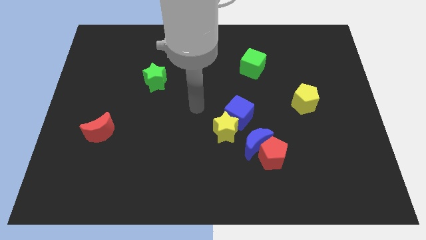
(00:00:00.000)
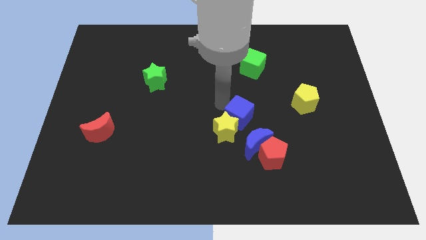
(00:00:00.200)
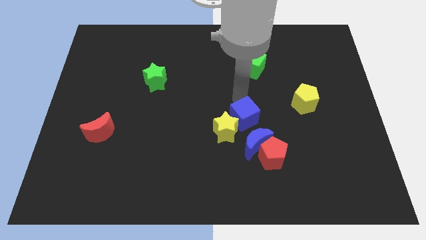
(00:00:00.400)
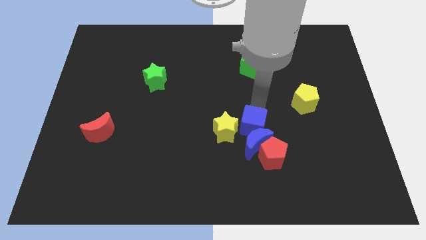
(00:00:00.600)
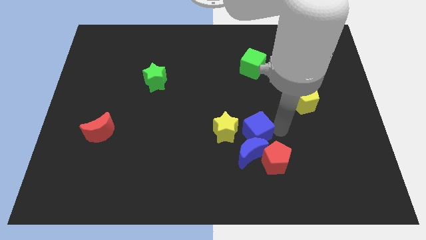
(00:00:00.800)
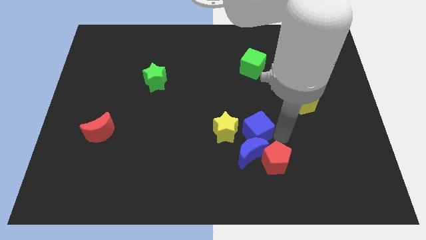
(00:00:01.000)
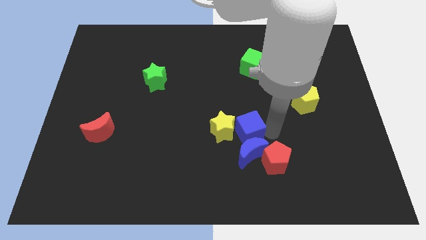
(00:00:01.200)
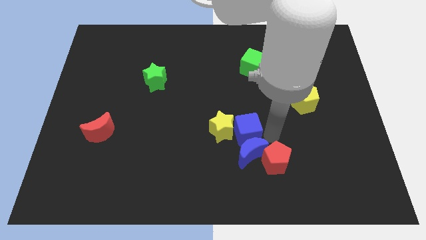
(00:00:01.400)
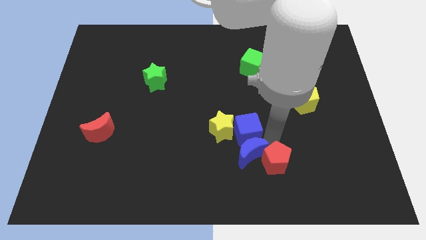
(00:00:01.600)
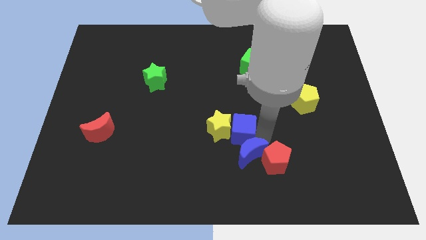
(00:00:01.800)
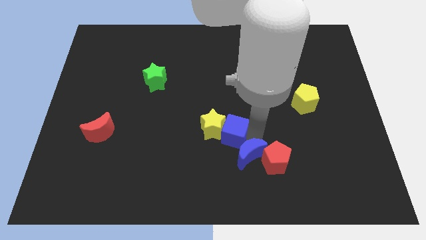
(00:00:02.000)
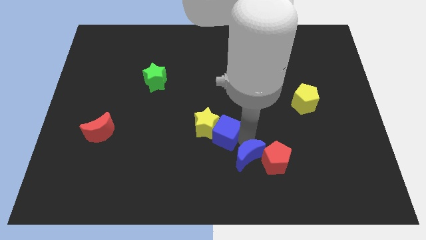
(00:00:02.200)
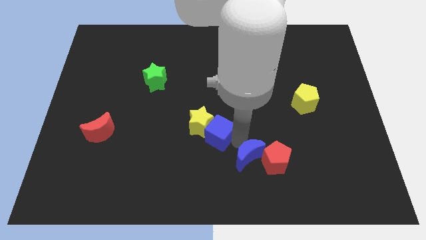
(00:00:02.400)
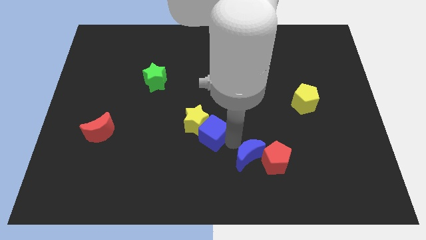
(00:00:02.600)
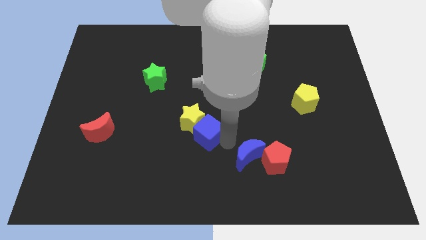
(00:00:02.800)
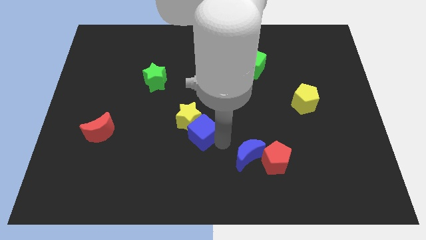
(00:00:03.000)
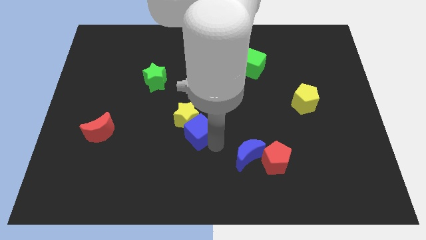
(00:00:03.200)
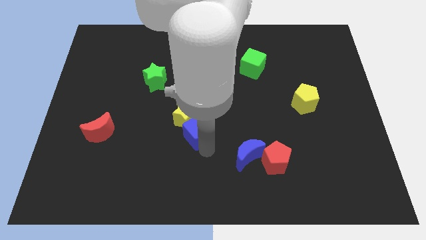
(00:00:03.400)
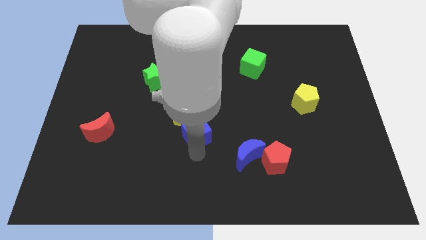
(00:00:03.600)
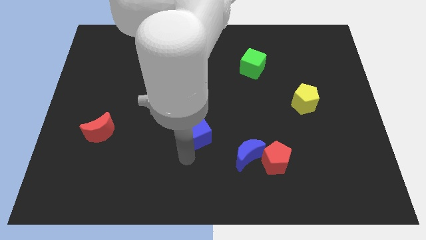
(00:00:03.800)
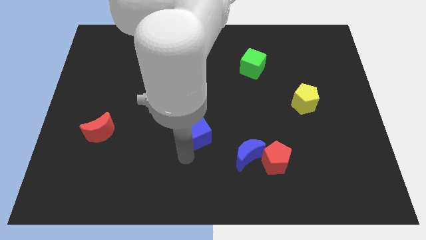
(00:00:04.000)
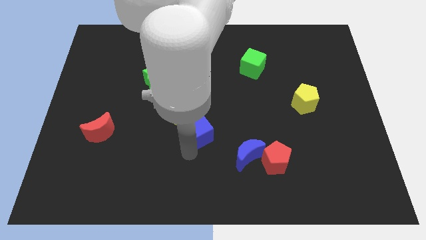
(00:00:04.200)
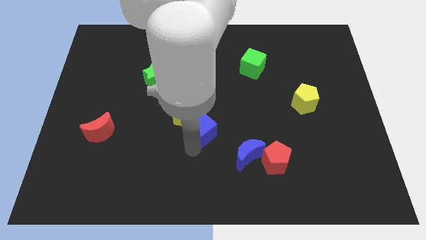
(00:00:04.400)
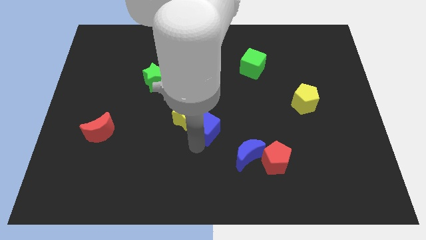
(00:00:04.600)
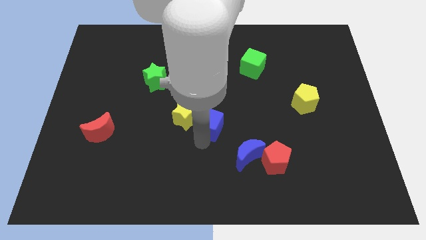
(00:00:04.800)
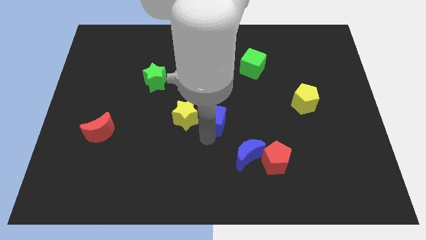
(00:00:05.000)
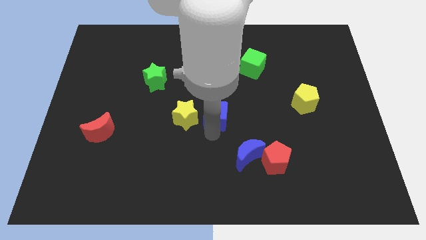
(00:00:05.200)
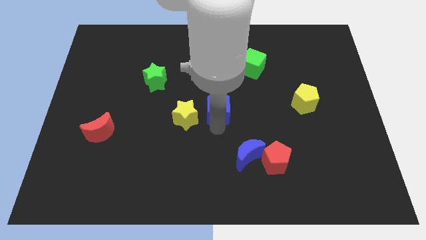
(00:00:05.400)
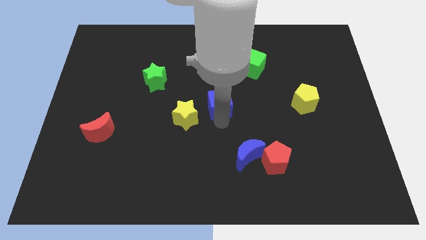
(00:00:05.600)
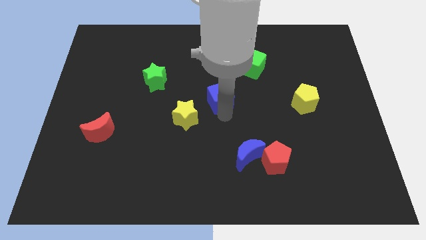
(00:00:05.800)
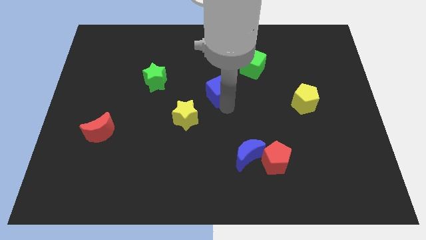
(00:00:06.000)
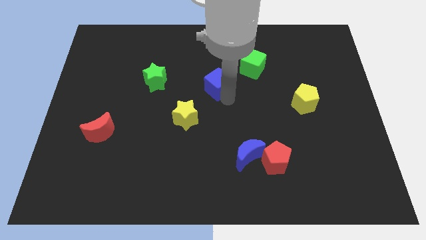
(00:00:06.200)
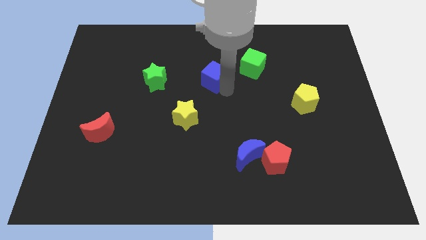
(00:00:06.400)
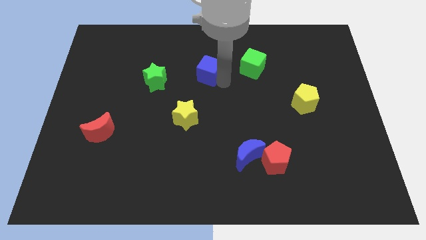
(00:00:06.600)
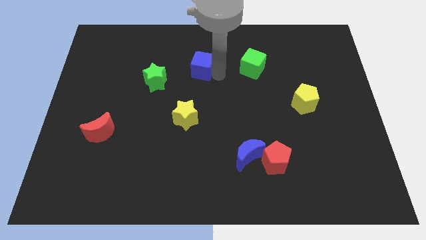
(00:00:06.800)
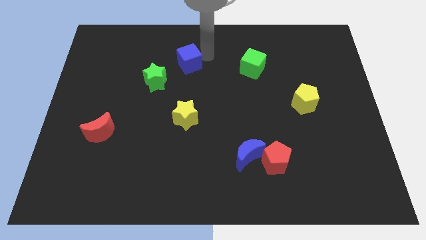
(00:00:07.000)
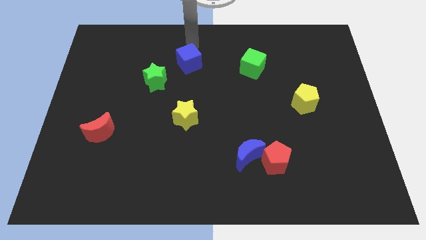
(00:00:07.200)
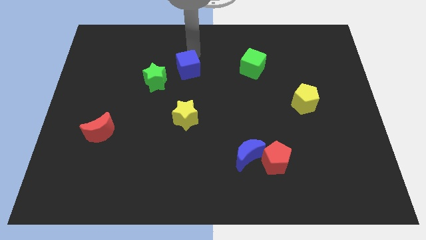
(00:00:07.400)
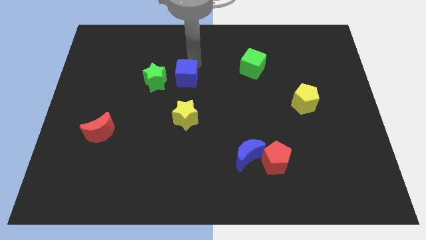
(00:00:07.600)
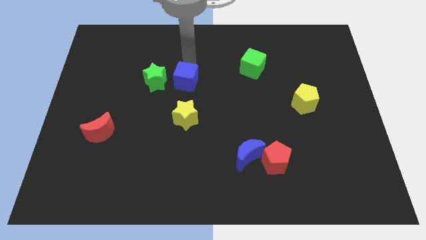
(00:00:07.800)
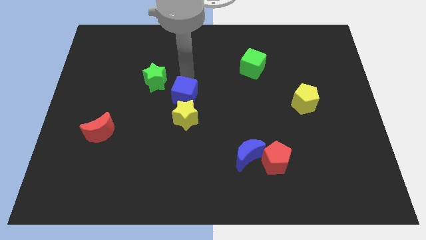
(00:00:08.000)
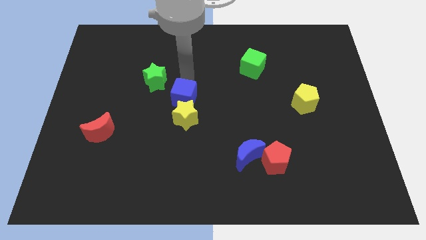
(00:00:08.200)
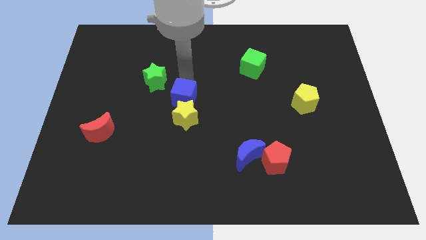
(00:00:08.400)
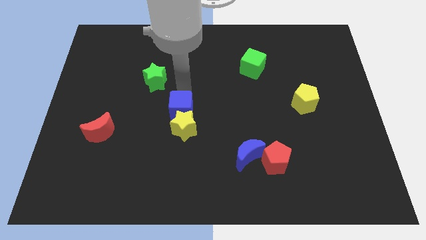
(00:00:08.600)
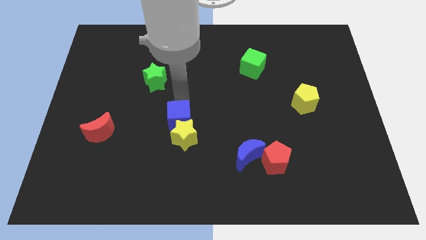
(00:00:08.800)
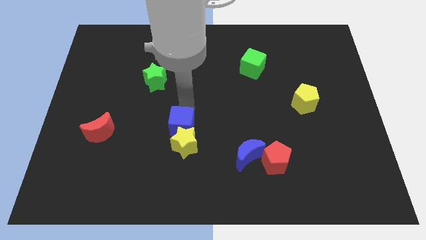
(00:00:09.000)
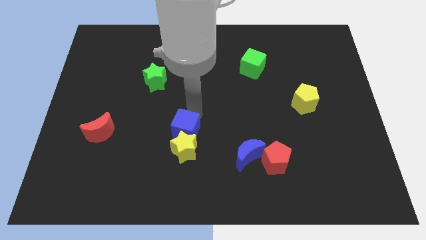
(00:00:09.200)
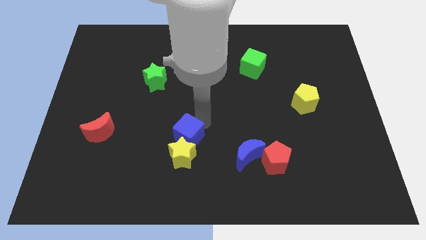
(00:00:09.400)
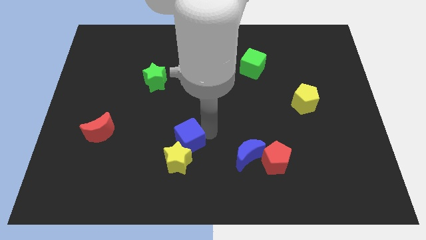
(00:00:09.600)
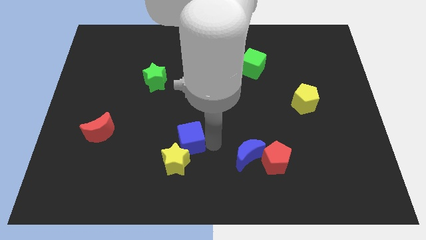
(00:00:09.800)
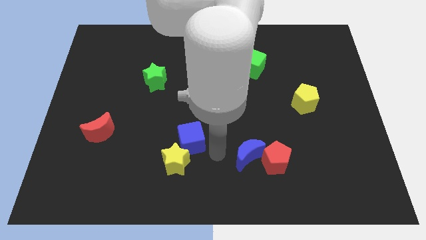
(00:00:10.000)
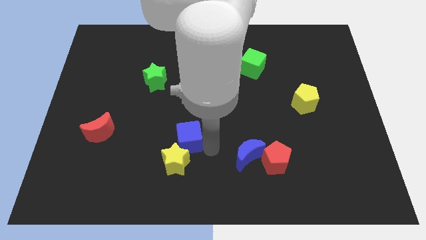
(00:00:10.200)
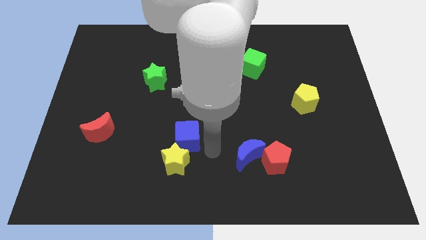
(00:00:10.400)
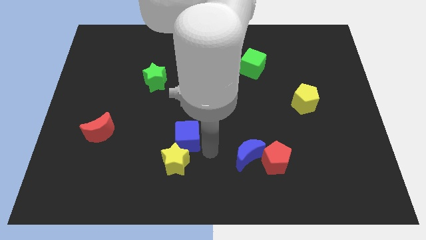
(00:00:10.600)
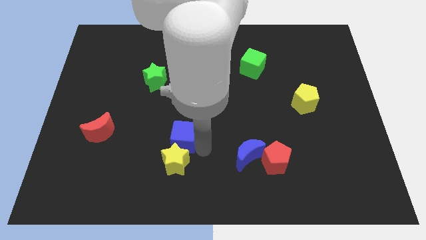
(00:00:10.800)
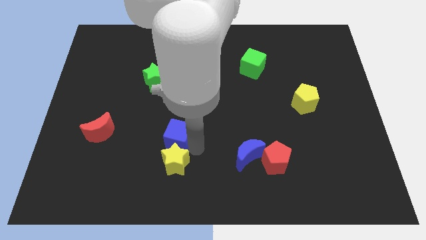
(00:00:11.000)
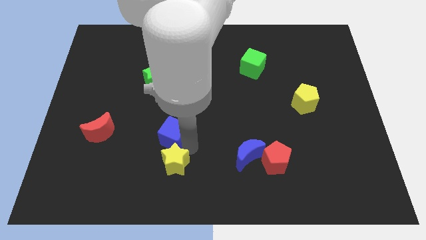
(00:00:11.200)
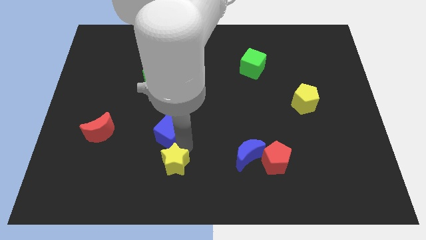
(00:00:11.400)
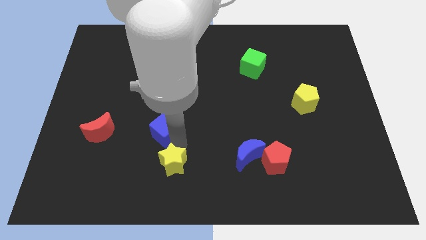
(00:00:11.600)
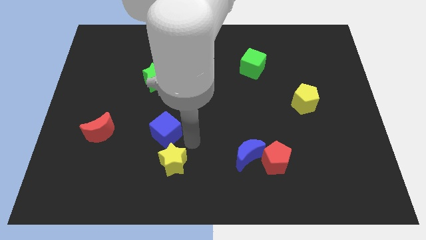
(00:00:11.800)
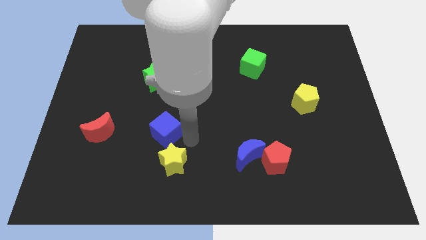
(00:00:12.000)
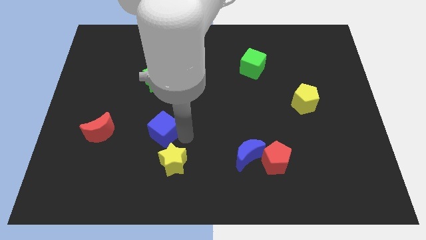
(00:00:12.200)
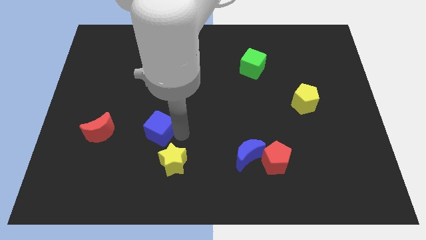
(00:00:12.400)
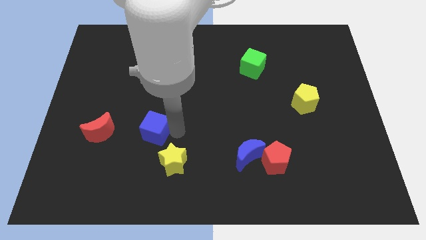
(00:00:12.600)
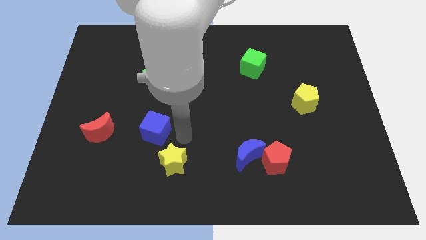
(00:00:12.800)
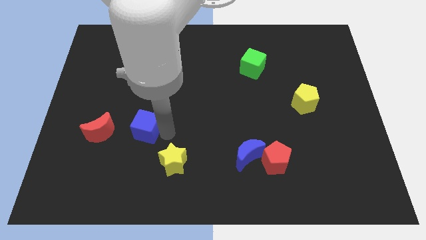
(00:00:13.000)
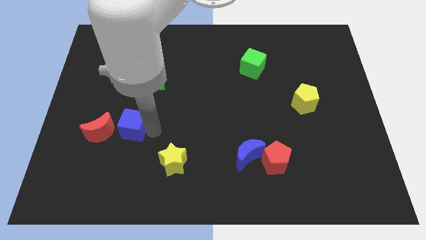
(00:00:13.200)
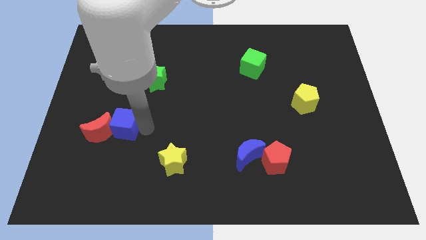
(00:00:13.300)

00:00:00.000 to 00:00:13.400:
move the blue cube next to the red moon
